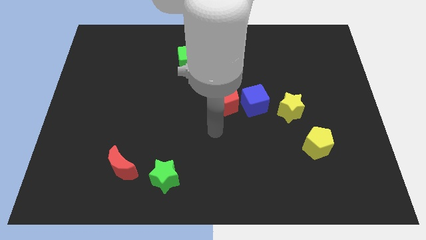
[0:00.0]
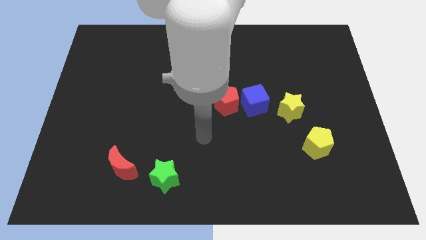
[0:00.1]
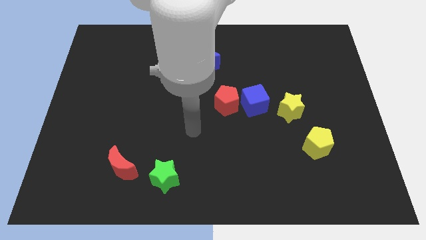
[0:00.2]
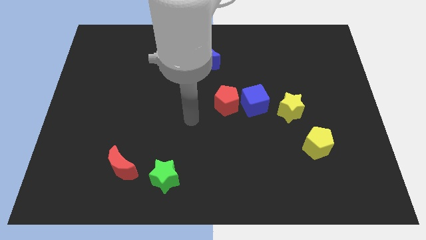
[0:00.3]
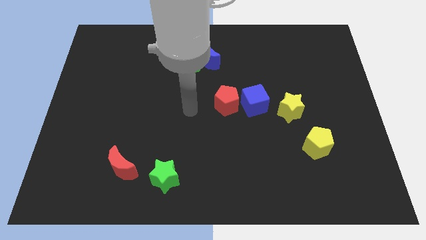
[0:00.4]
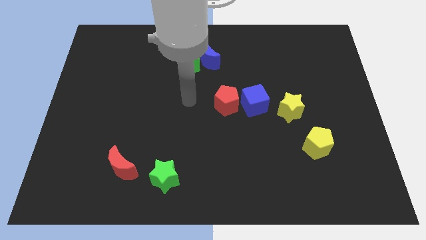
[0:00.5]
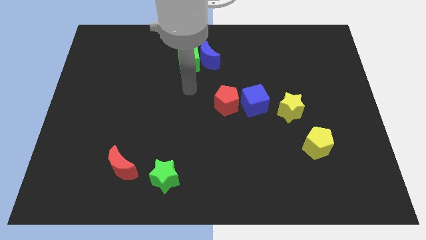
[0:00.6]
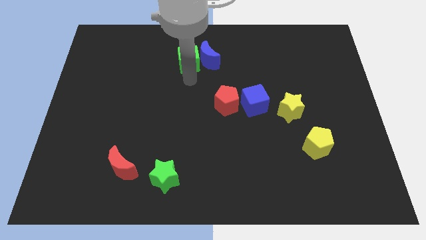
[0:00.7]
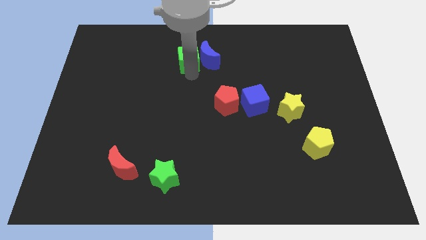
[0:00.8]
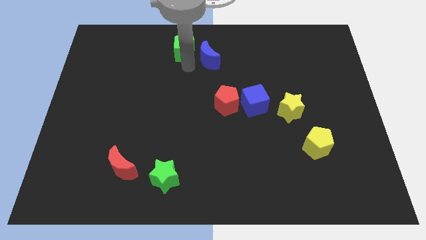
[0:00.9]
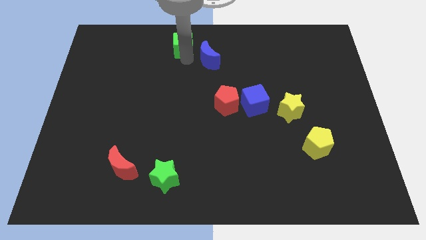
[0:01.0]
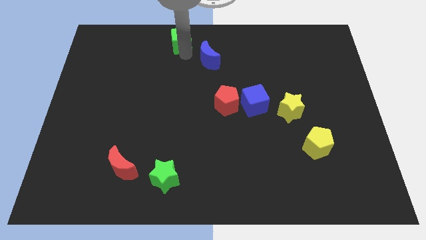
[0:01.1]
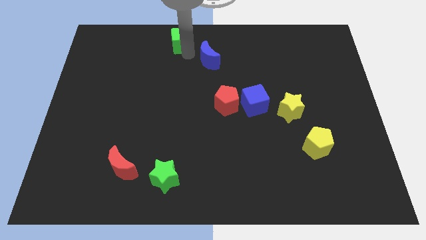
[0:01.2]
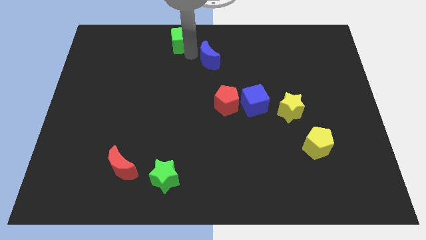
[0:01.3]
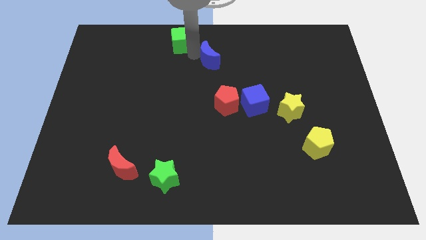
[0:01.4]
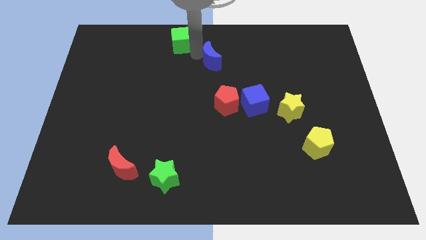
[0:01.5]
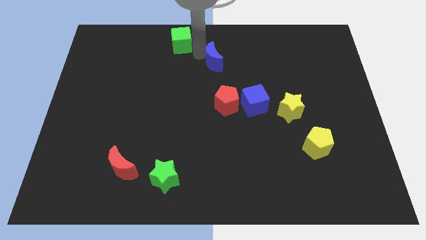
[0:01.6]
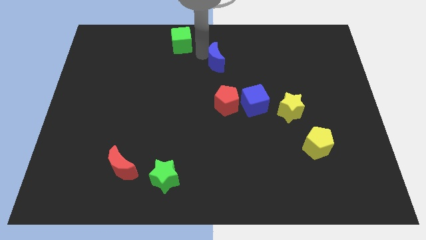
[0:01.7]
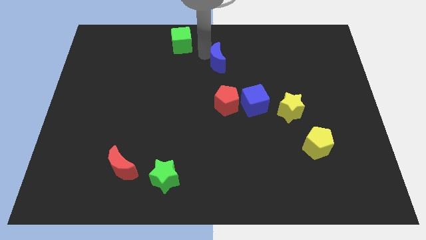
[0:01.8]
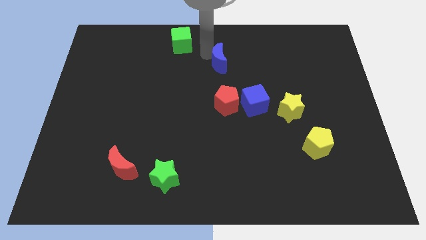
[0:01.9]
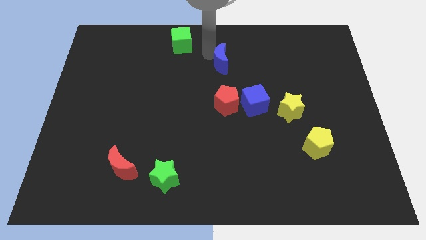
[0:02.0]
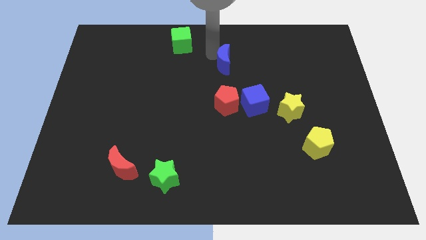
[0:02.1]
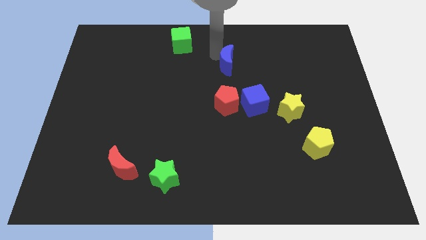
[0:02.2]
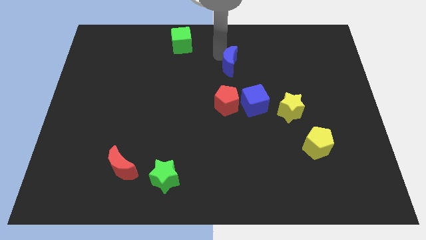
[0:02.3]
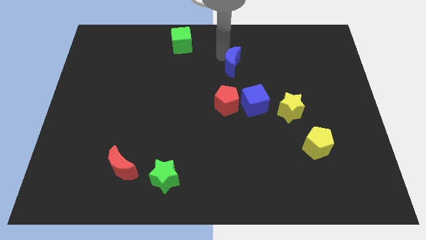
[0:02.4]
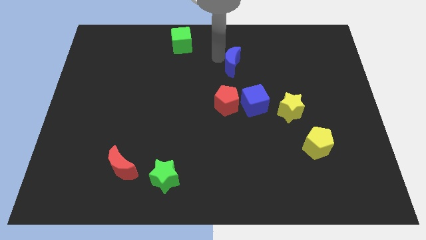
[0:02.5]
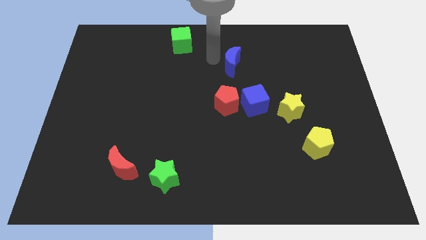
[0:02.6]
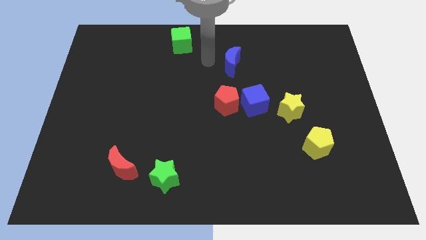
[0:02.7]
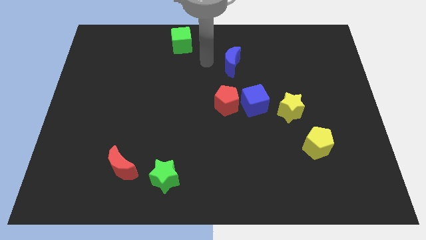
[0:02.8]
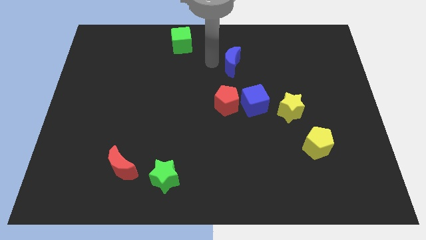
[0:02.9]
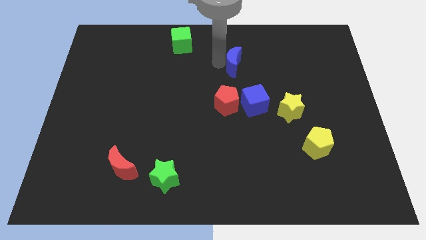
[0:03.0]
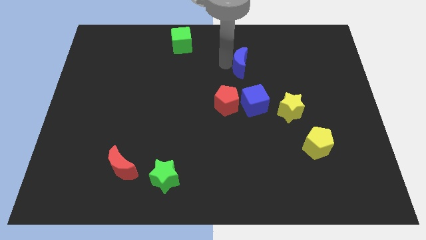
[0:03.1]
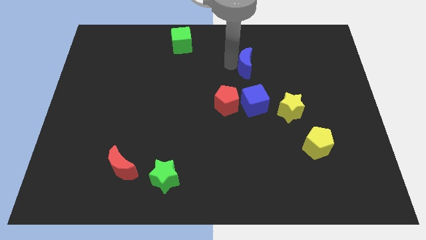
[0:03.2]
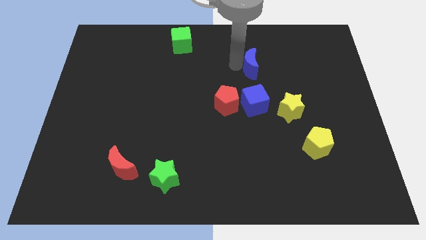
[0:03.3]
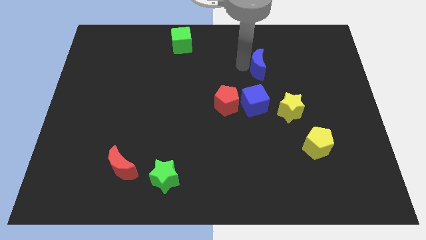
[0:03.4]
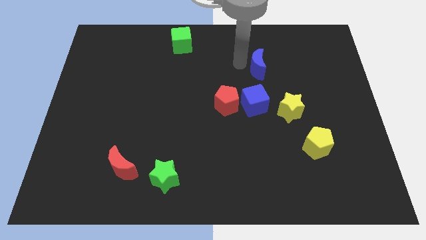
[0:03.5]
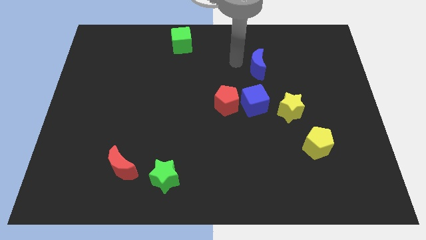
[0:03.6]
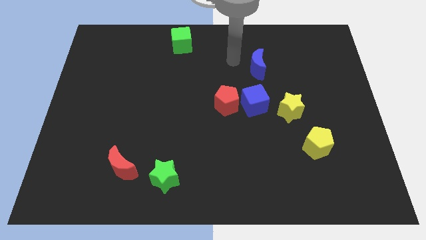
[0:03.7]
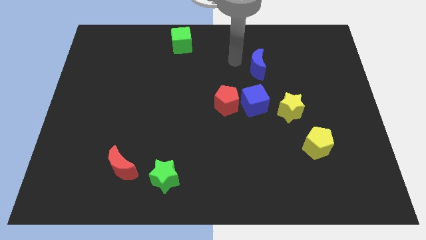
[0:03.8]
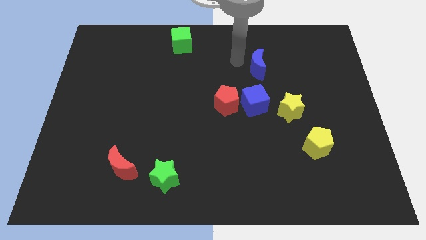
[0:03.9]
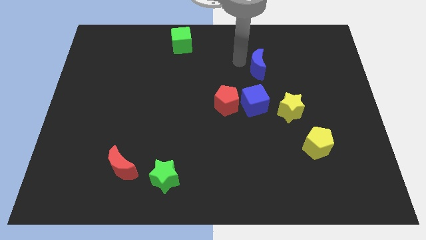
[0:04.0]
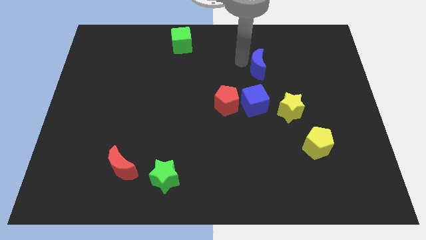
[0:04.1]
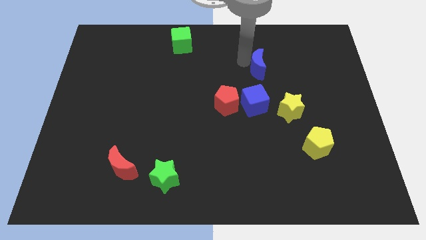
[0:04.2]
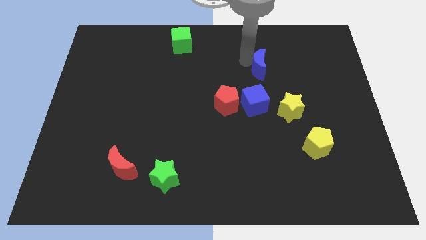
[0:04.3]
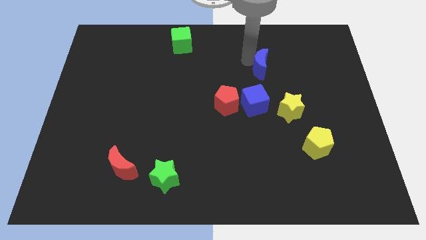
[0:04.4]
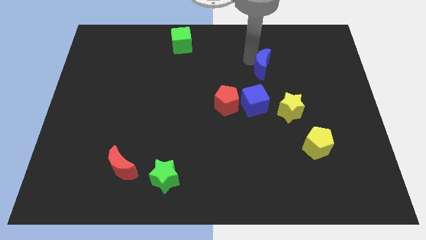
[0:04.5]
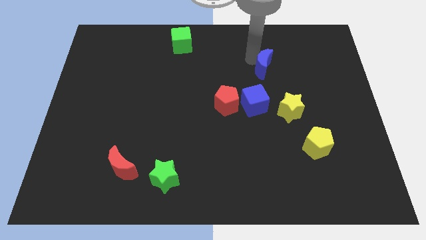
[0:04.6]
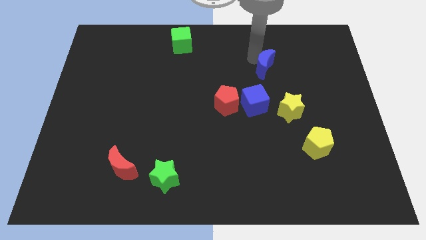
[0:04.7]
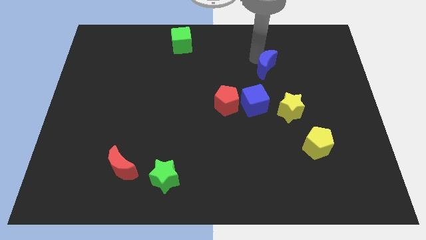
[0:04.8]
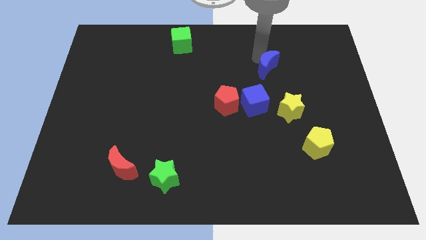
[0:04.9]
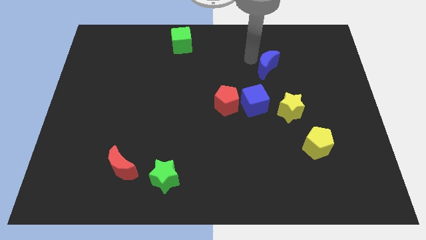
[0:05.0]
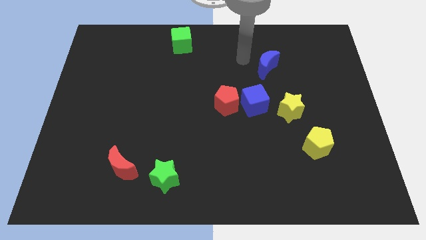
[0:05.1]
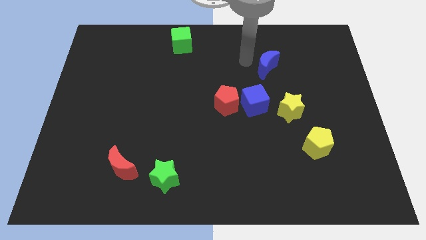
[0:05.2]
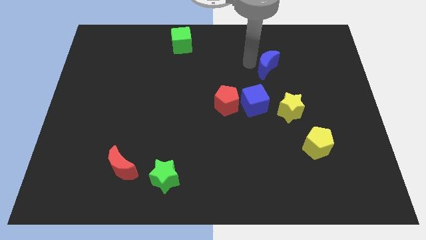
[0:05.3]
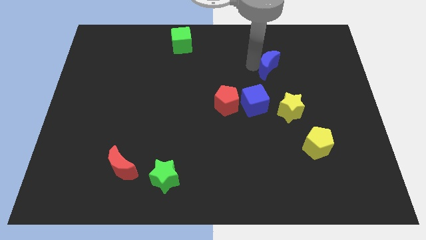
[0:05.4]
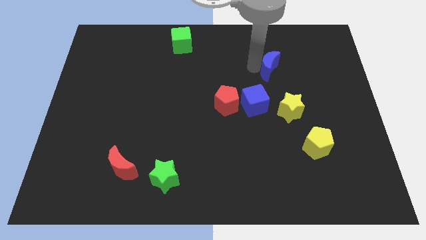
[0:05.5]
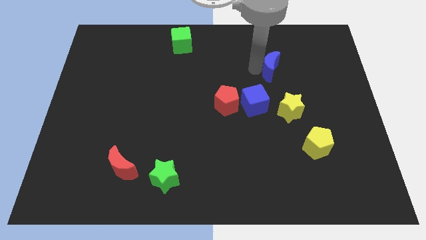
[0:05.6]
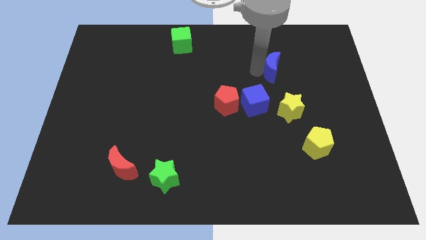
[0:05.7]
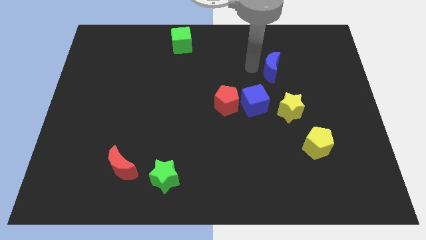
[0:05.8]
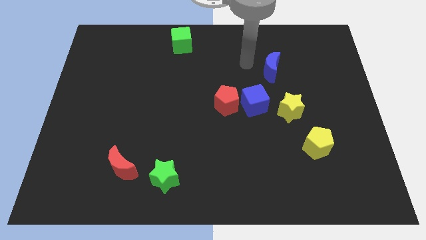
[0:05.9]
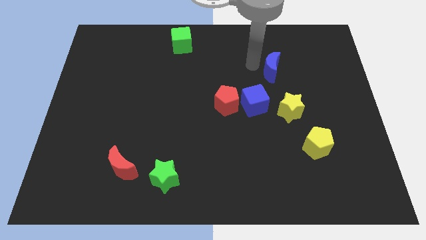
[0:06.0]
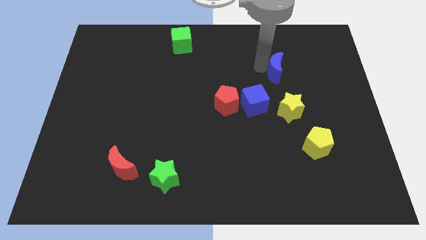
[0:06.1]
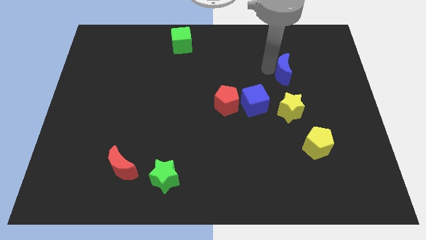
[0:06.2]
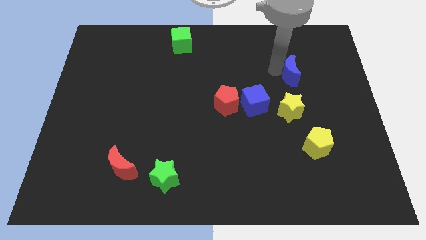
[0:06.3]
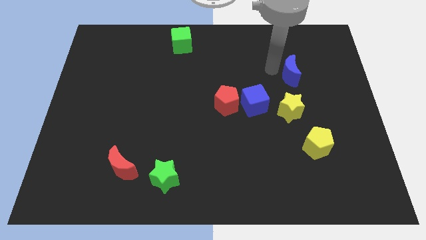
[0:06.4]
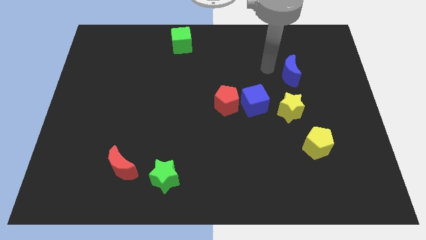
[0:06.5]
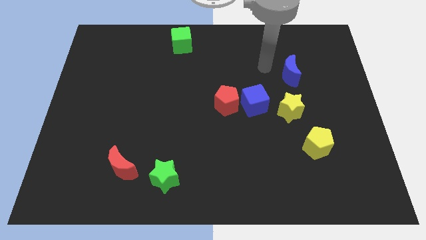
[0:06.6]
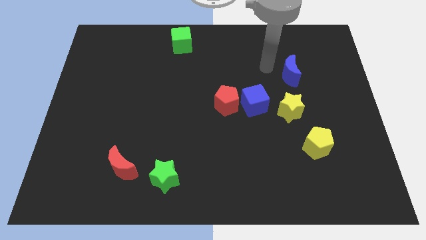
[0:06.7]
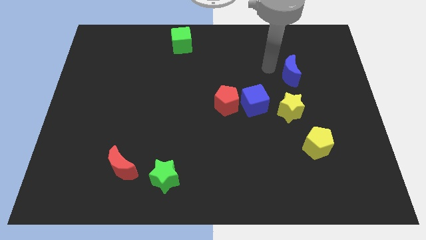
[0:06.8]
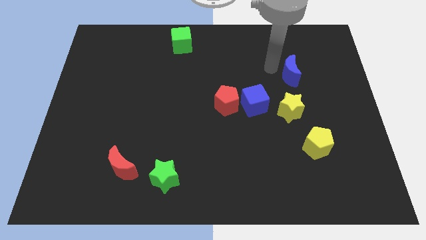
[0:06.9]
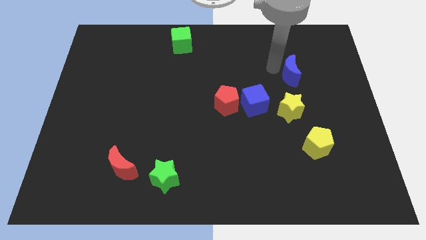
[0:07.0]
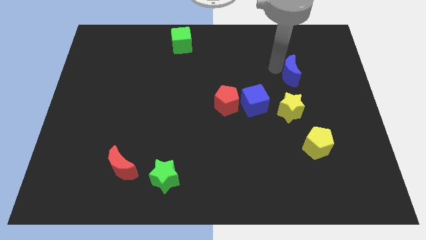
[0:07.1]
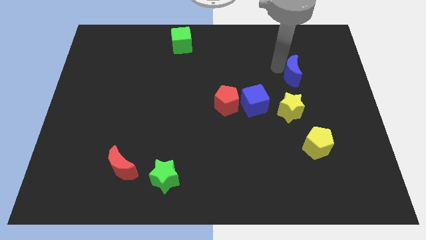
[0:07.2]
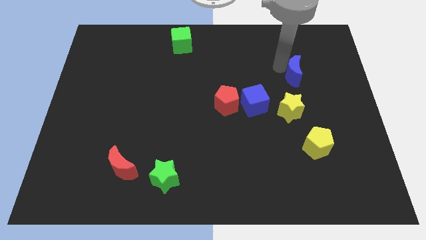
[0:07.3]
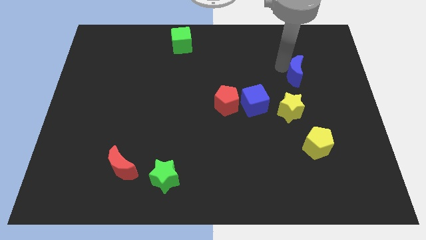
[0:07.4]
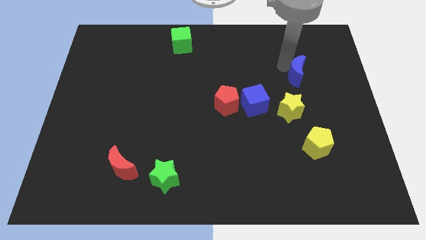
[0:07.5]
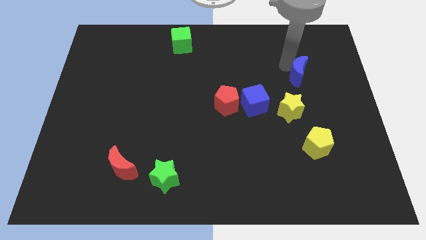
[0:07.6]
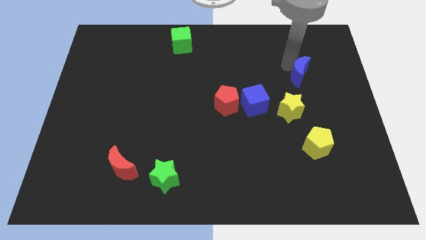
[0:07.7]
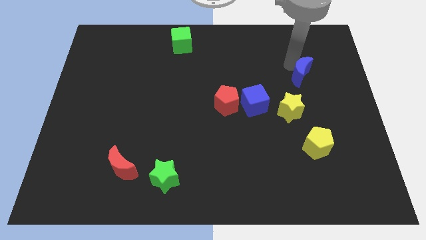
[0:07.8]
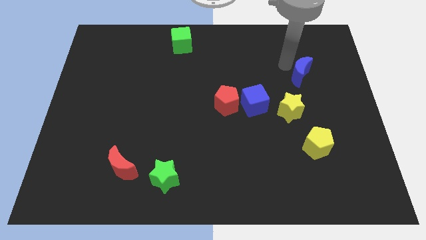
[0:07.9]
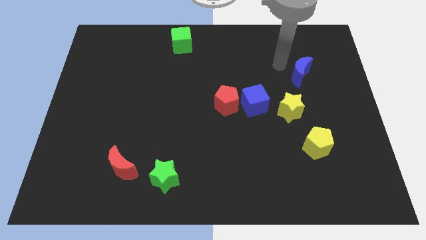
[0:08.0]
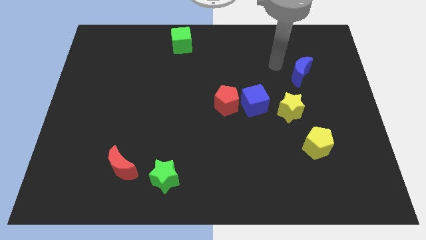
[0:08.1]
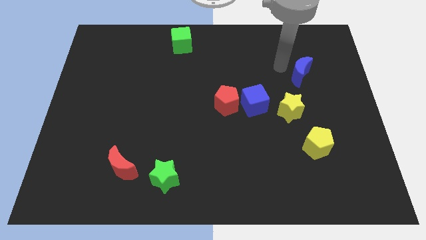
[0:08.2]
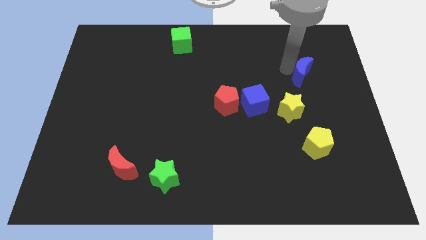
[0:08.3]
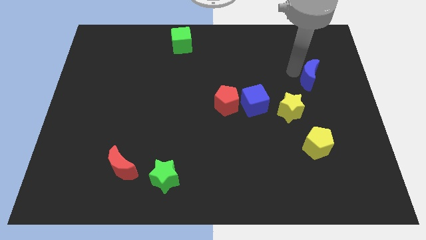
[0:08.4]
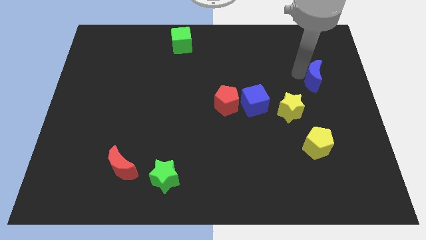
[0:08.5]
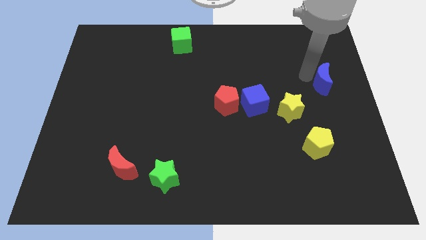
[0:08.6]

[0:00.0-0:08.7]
slide the blue moon to the center right
